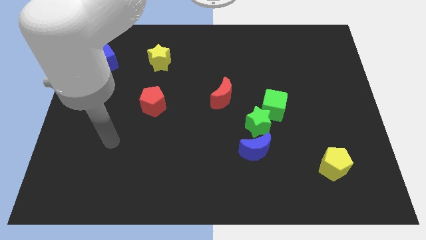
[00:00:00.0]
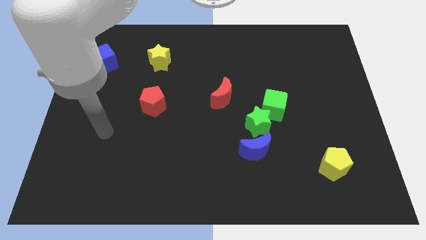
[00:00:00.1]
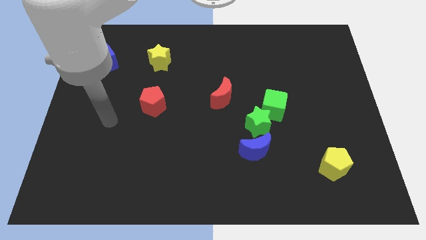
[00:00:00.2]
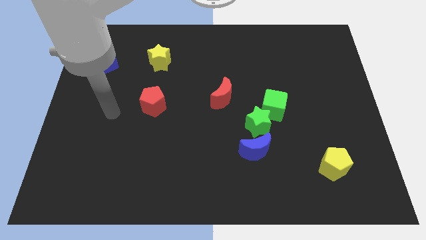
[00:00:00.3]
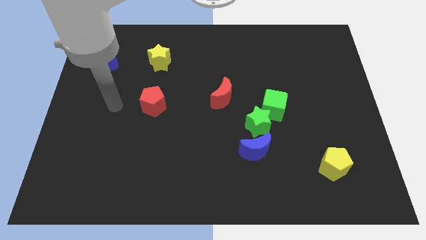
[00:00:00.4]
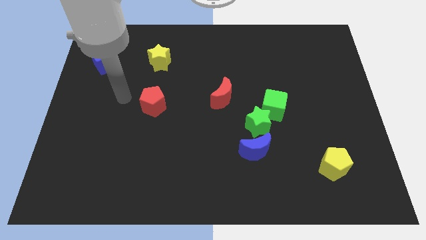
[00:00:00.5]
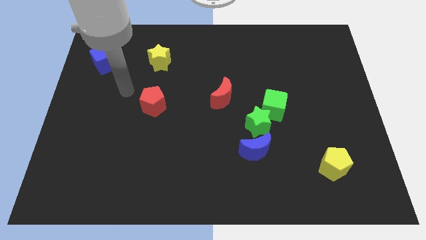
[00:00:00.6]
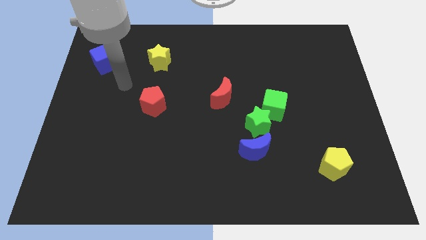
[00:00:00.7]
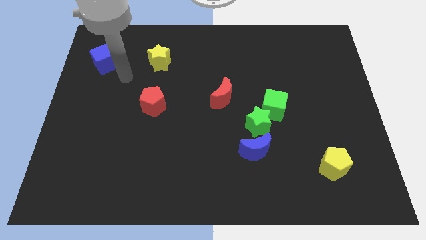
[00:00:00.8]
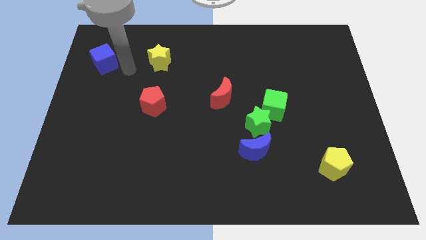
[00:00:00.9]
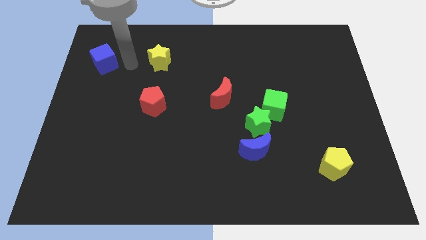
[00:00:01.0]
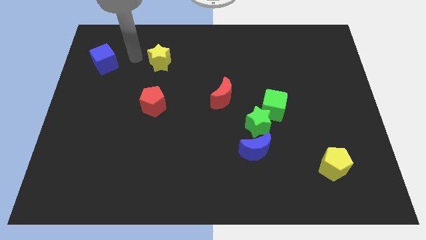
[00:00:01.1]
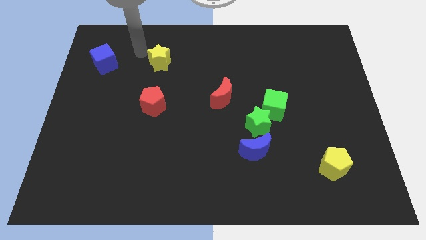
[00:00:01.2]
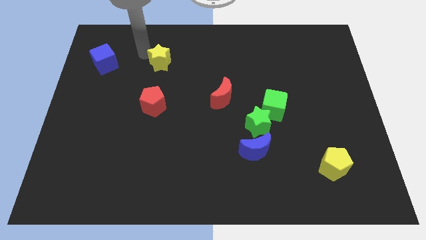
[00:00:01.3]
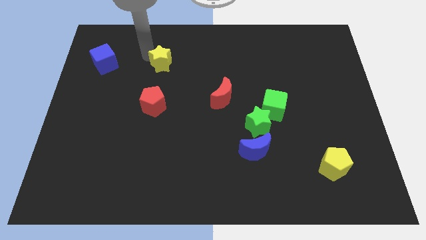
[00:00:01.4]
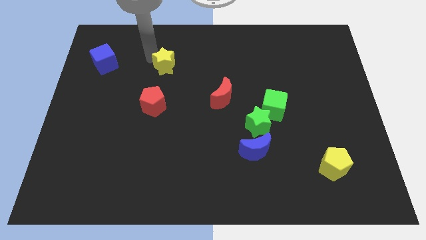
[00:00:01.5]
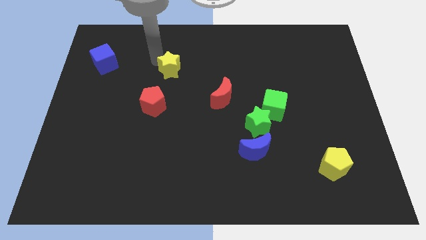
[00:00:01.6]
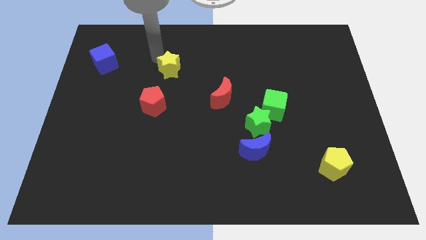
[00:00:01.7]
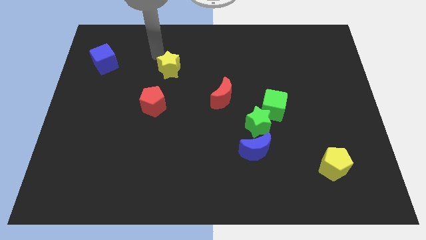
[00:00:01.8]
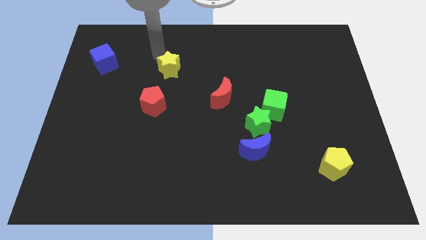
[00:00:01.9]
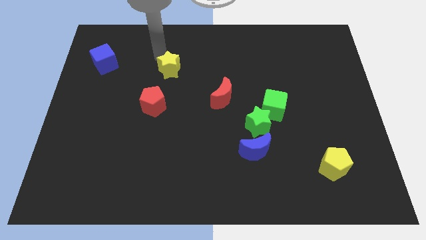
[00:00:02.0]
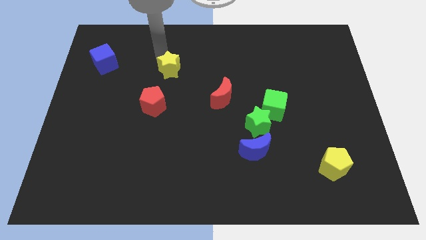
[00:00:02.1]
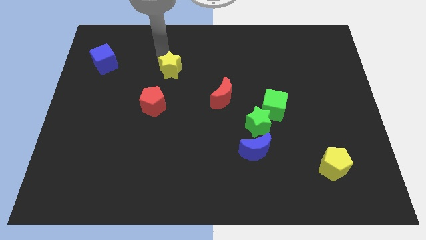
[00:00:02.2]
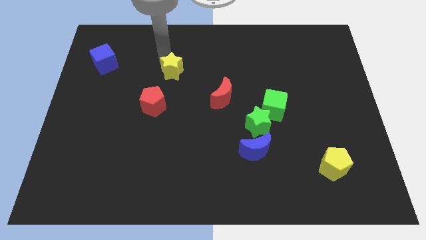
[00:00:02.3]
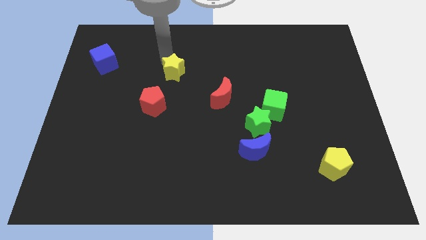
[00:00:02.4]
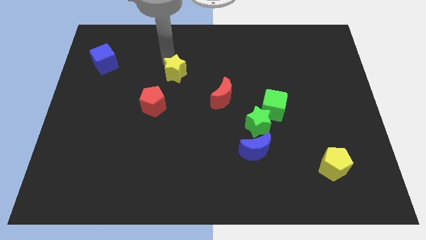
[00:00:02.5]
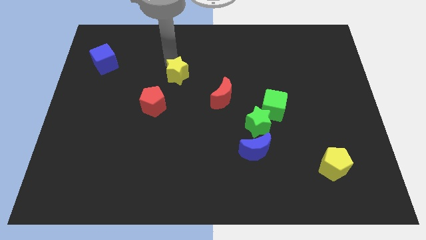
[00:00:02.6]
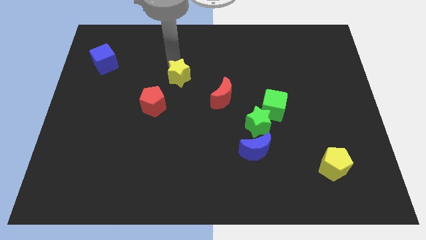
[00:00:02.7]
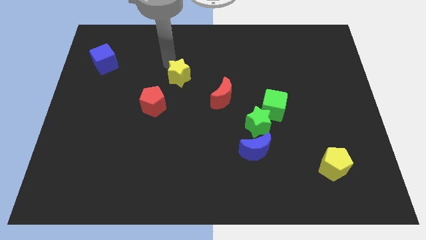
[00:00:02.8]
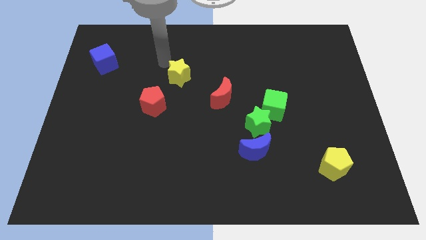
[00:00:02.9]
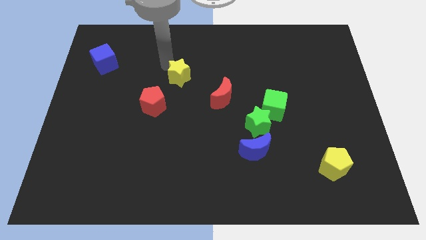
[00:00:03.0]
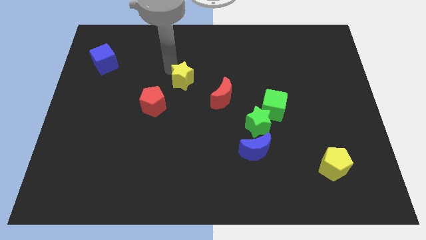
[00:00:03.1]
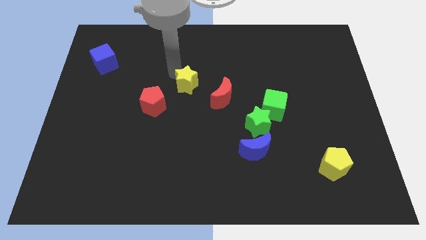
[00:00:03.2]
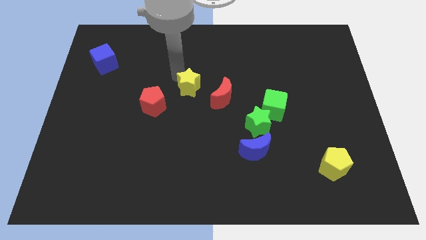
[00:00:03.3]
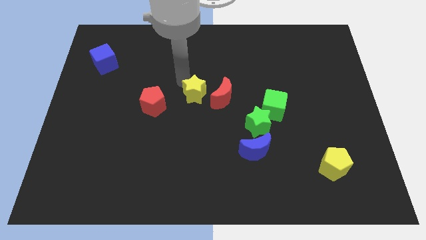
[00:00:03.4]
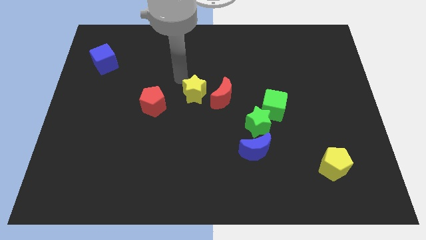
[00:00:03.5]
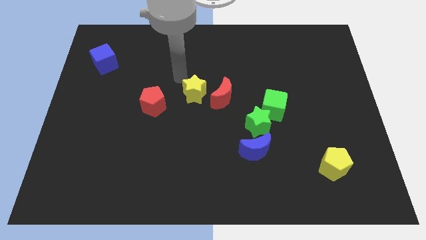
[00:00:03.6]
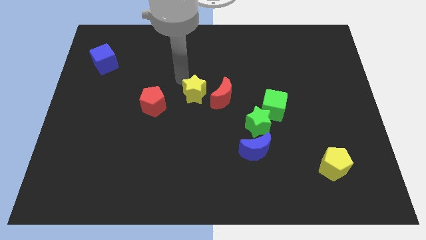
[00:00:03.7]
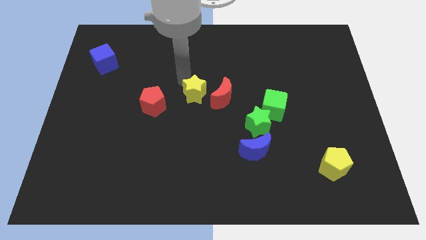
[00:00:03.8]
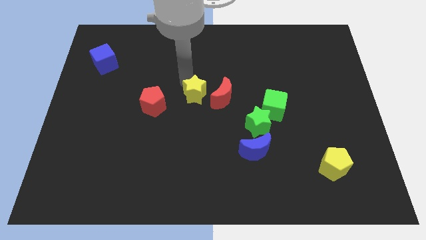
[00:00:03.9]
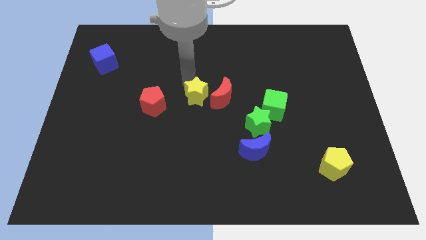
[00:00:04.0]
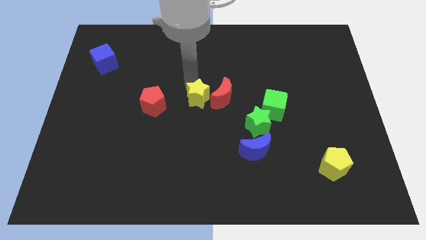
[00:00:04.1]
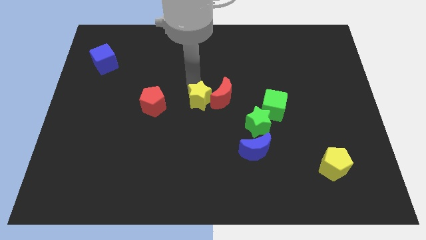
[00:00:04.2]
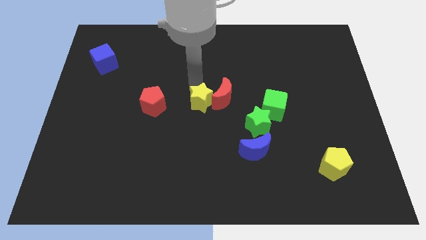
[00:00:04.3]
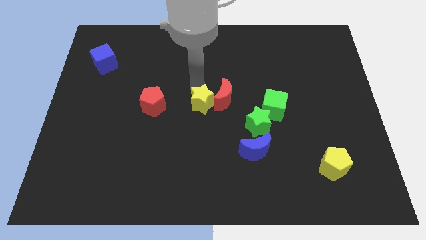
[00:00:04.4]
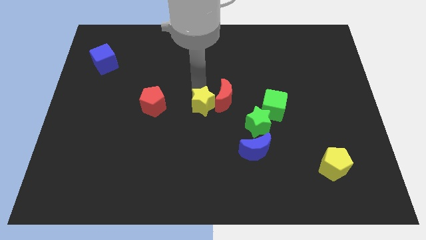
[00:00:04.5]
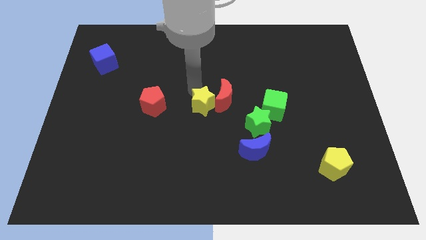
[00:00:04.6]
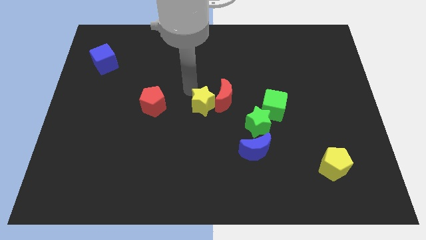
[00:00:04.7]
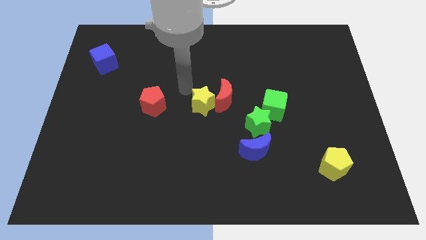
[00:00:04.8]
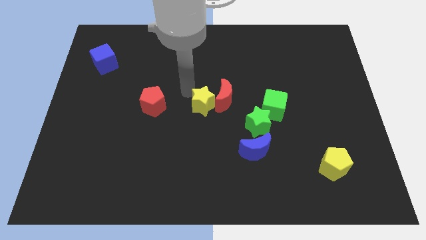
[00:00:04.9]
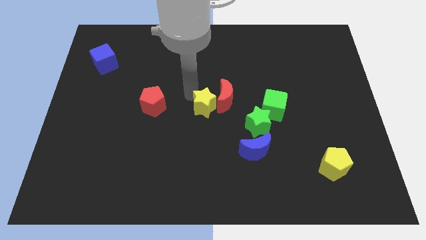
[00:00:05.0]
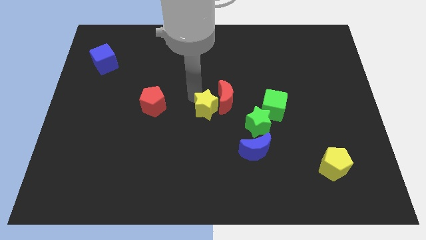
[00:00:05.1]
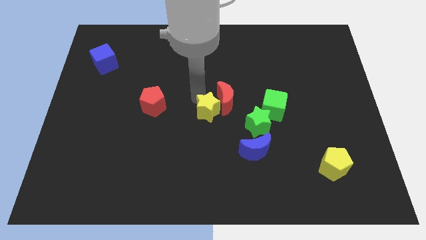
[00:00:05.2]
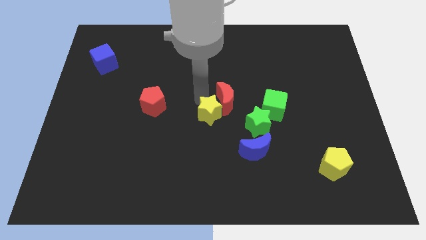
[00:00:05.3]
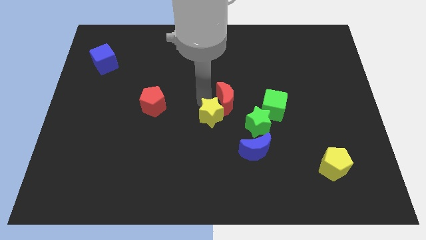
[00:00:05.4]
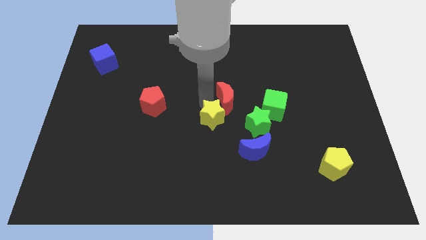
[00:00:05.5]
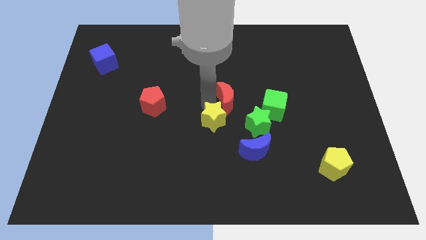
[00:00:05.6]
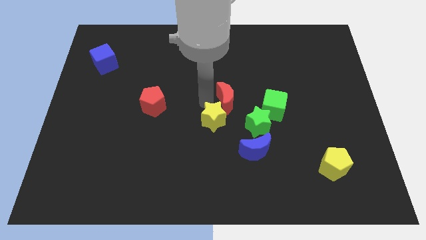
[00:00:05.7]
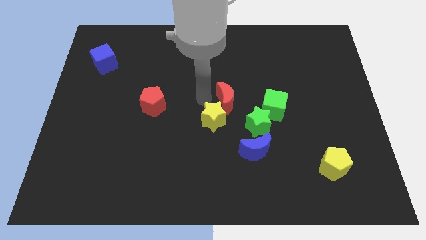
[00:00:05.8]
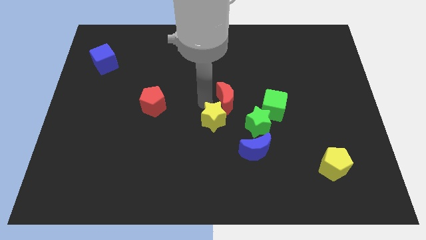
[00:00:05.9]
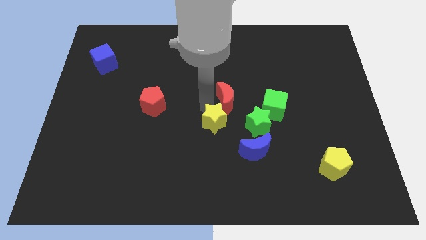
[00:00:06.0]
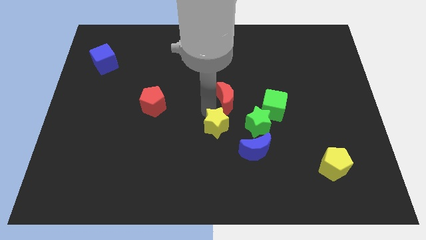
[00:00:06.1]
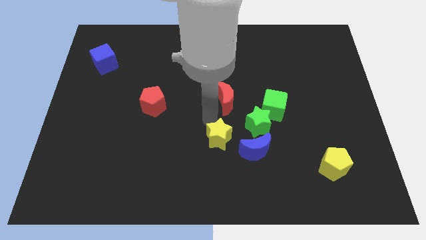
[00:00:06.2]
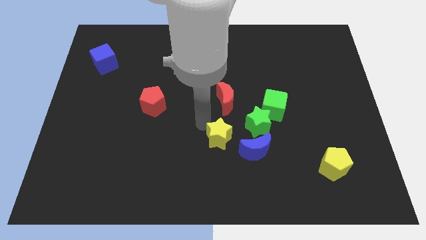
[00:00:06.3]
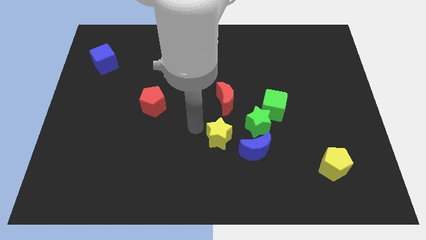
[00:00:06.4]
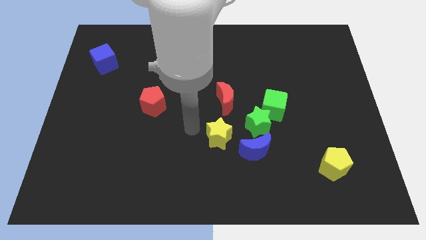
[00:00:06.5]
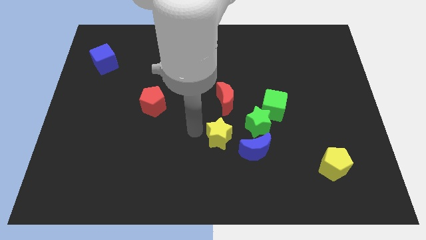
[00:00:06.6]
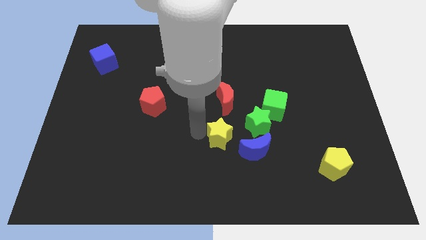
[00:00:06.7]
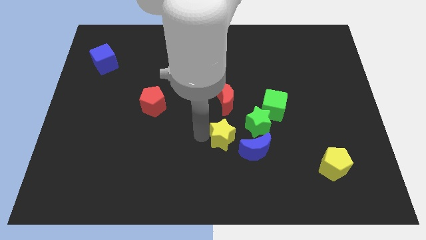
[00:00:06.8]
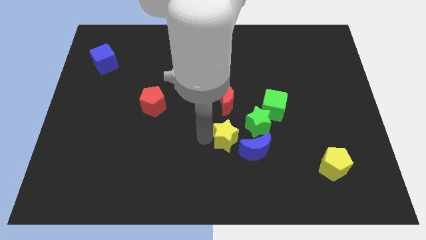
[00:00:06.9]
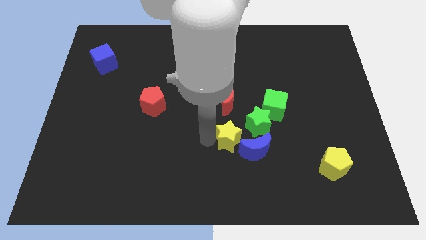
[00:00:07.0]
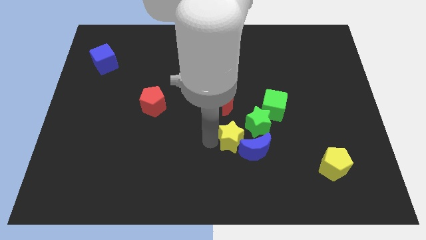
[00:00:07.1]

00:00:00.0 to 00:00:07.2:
slide the yellow star next to the blue moon
